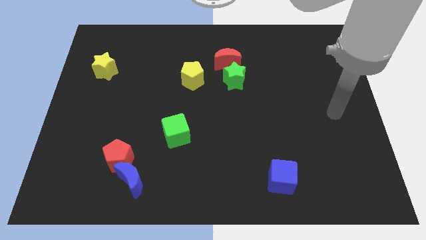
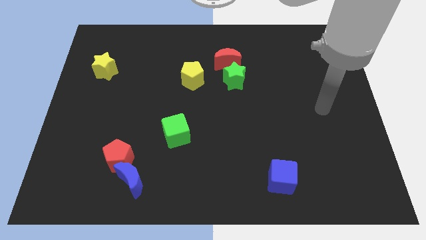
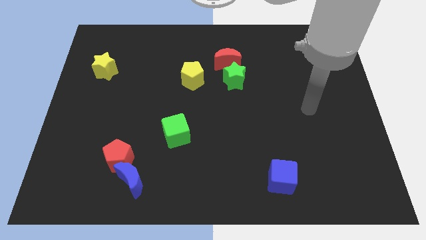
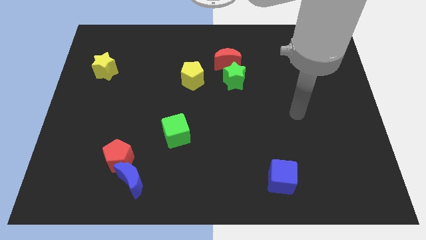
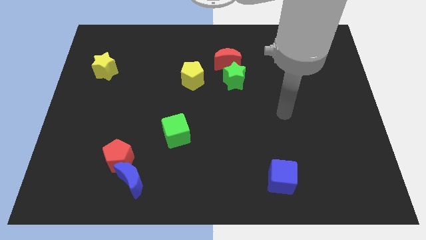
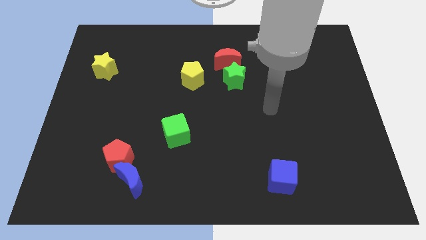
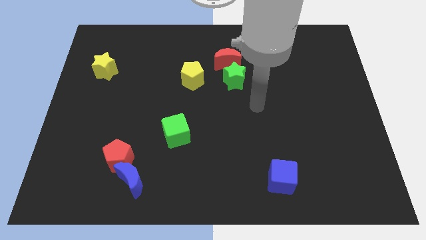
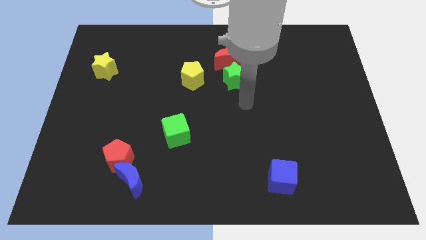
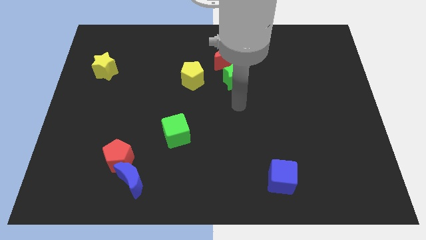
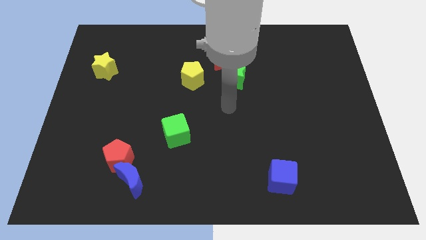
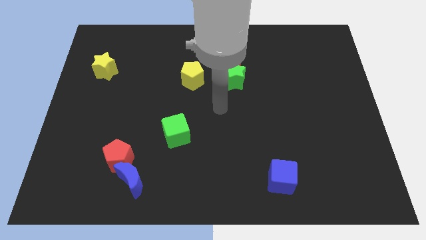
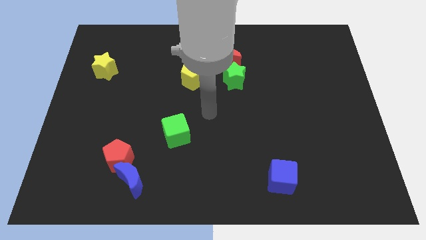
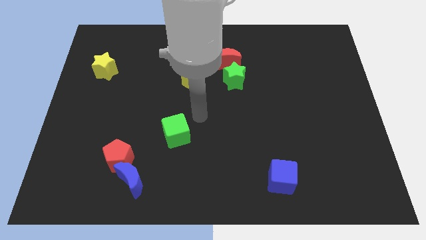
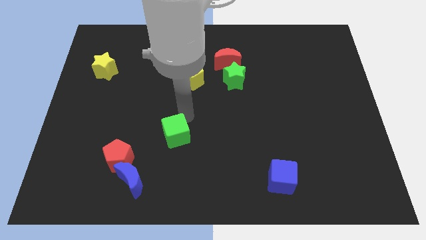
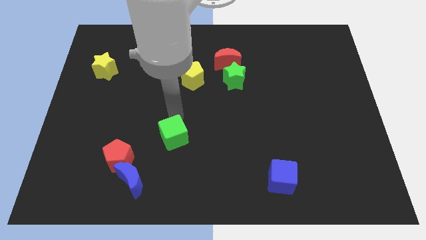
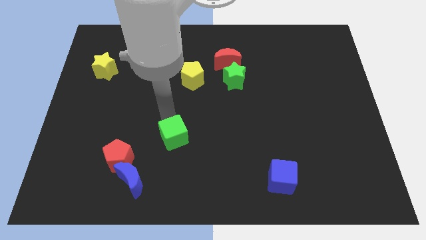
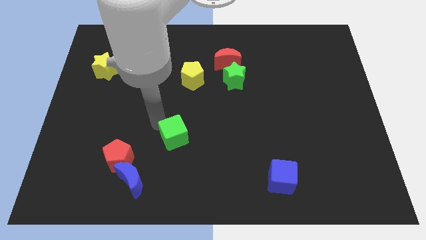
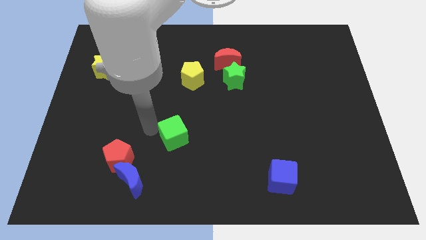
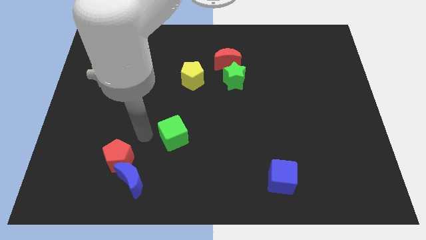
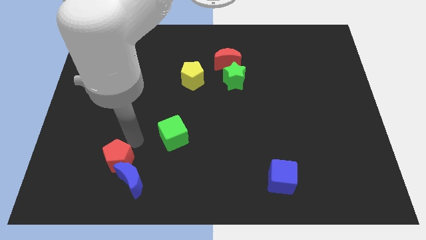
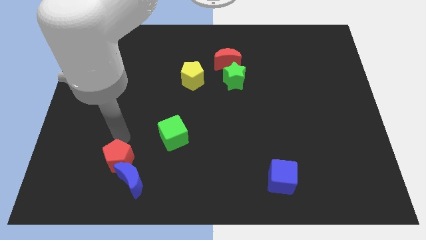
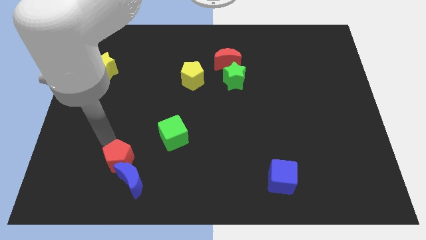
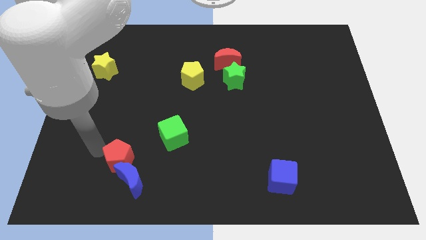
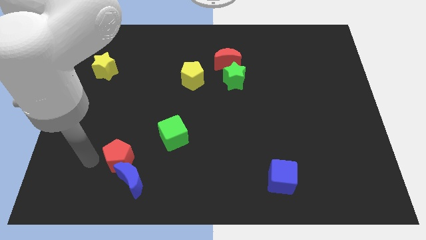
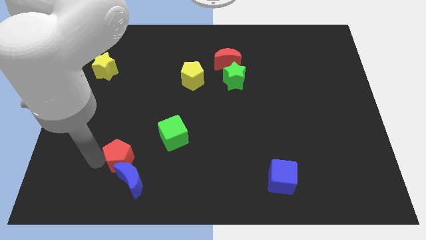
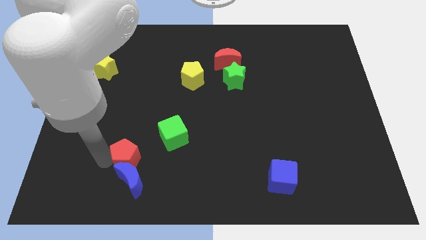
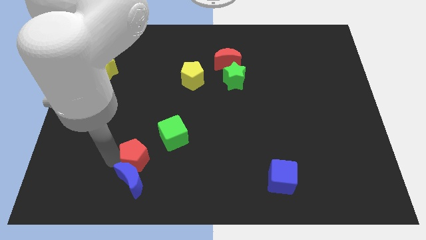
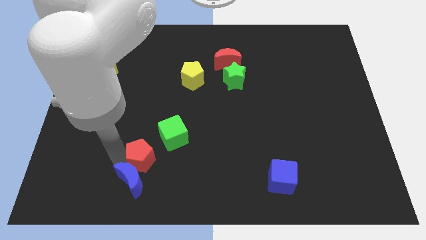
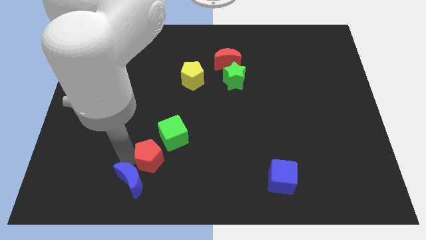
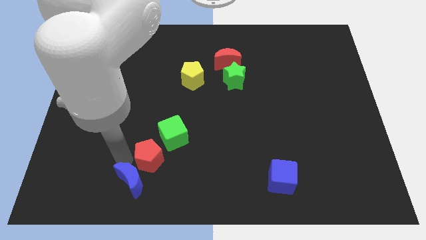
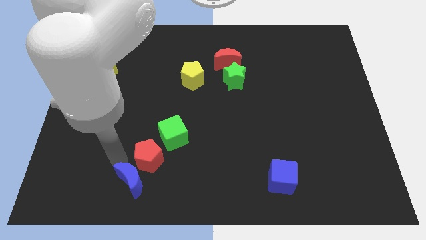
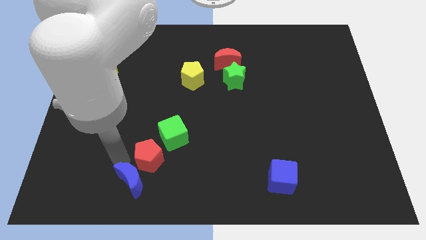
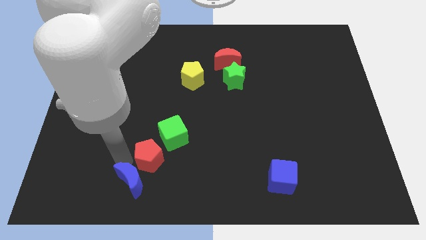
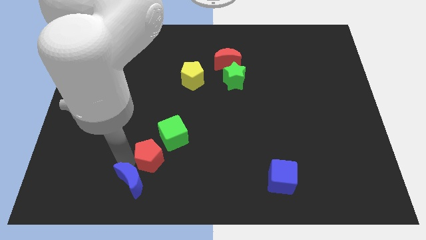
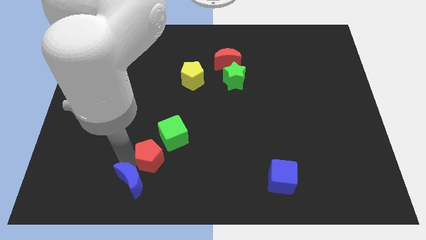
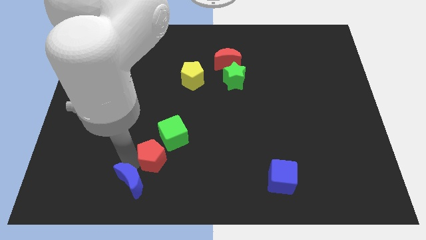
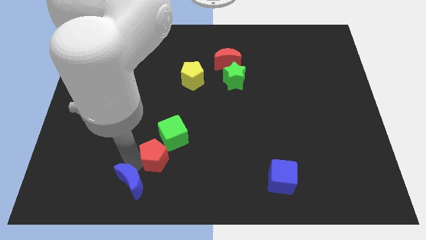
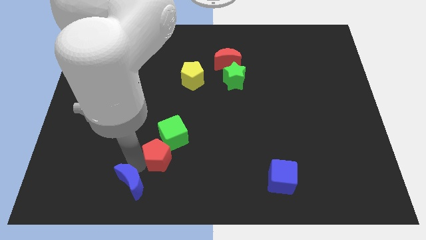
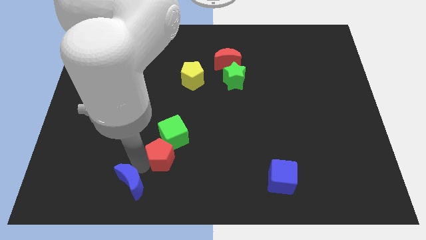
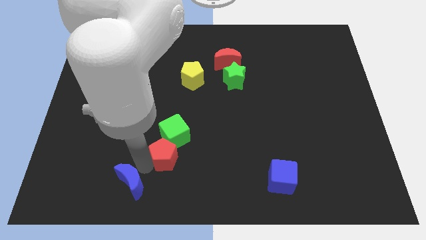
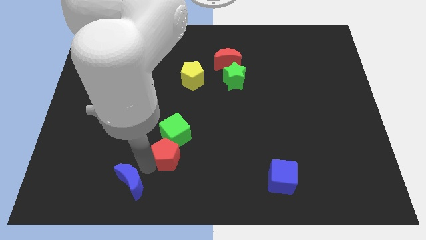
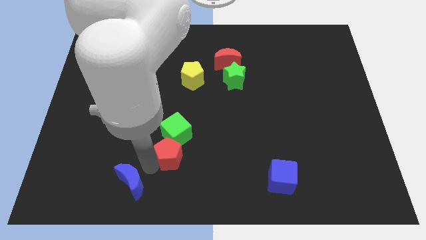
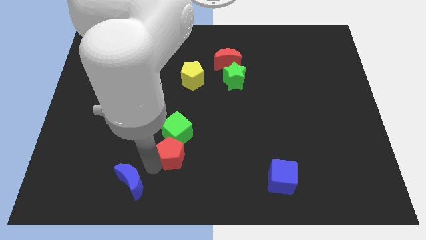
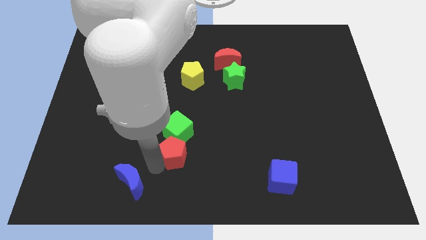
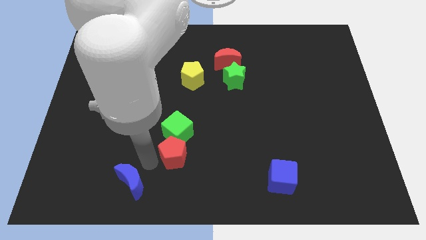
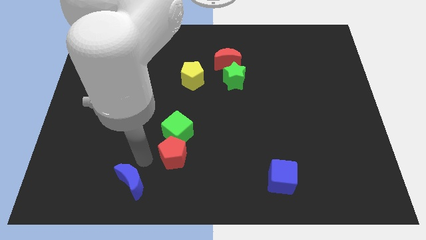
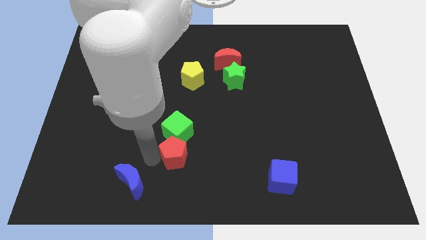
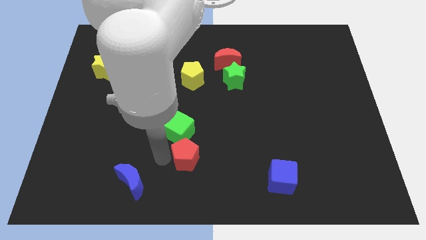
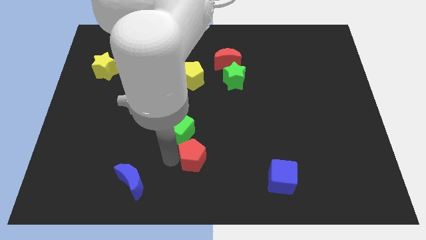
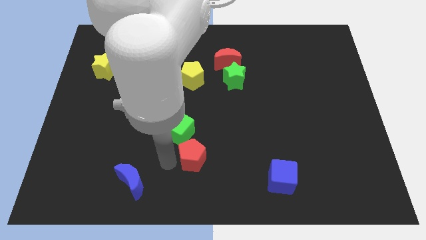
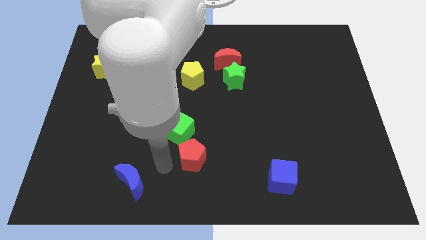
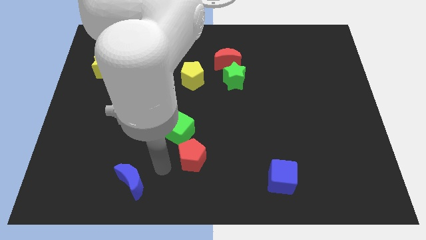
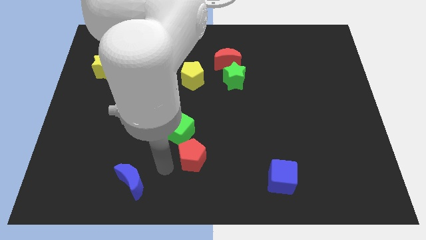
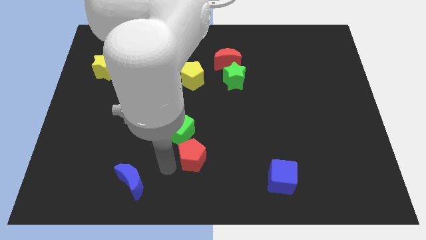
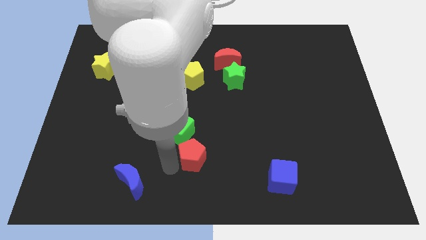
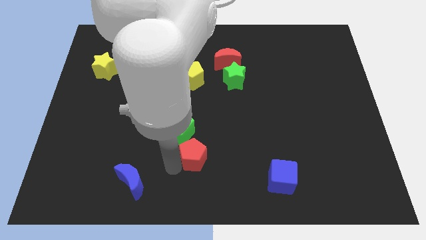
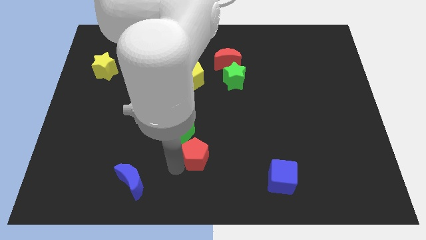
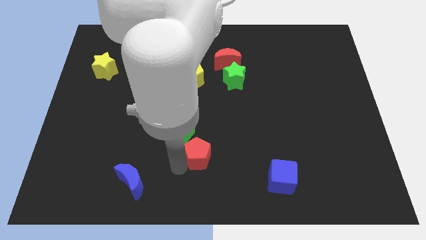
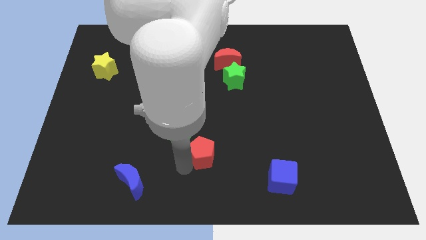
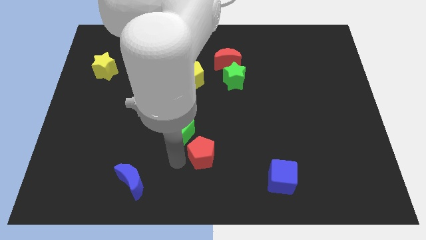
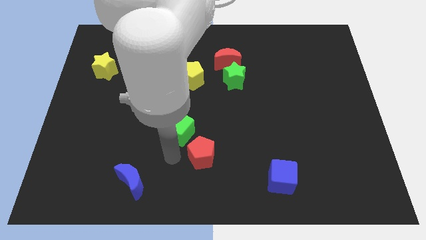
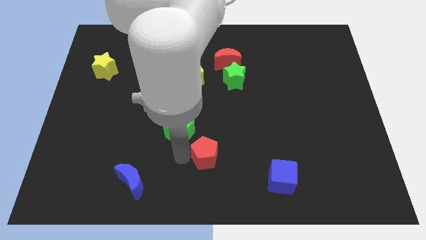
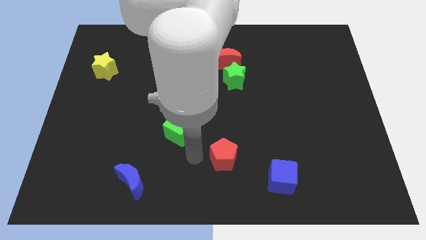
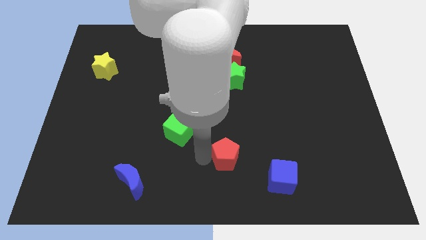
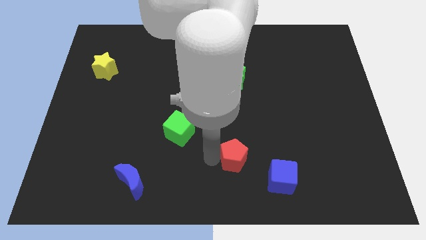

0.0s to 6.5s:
slide the red pentagon to the top left side of the blue cube
